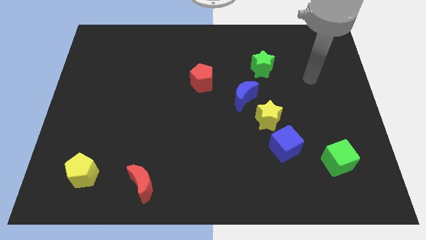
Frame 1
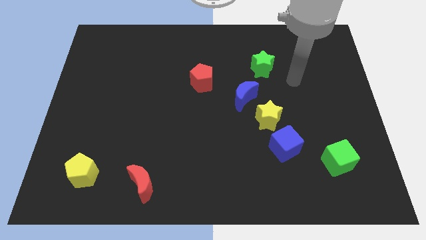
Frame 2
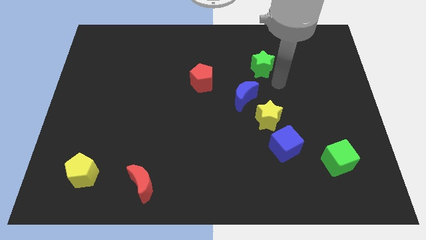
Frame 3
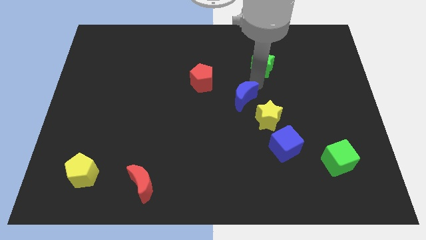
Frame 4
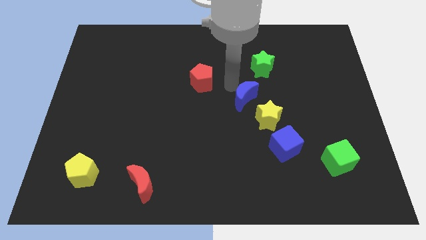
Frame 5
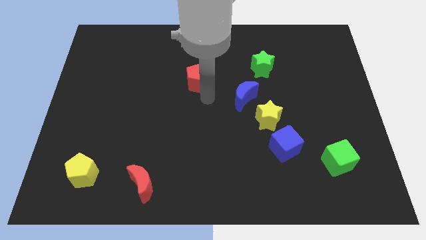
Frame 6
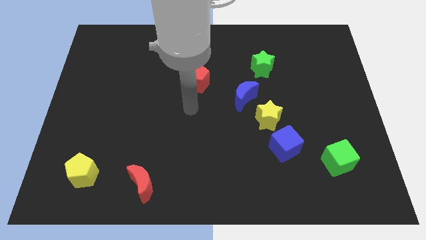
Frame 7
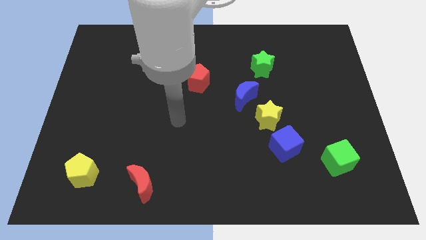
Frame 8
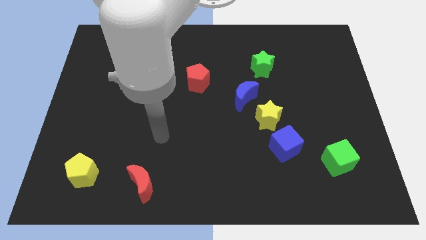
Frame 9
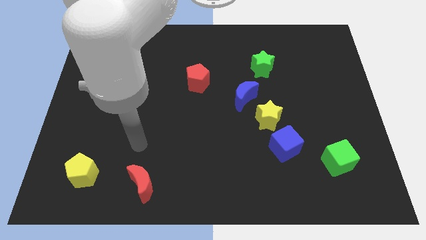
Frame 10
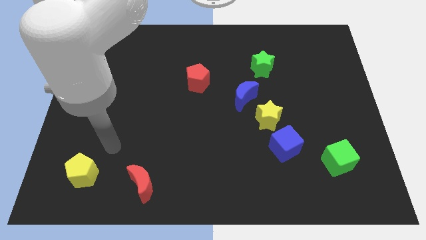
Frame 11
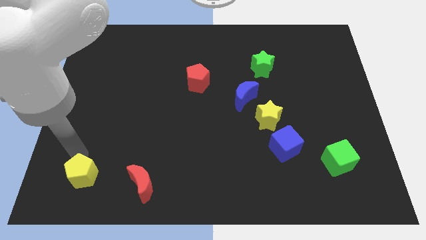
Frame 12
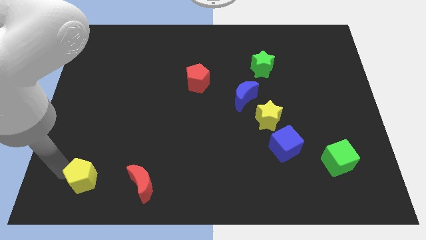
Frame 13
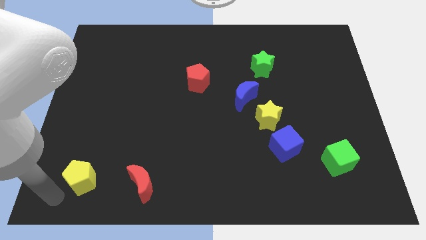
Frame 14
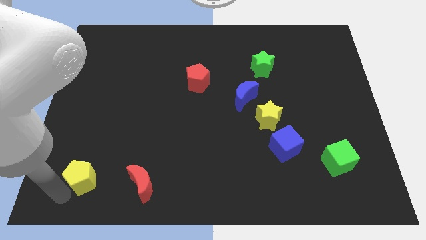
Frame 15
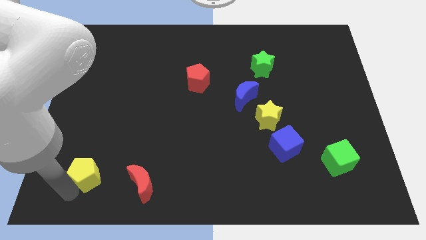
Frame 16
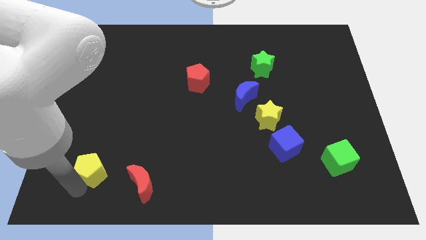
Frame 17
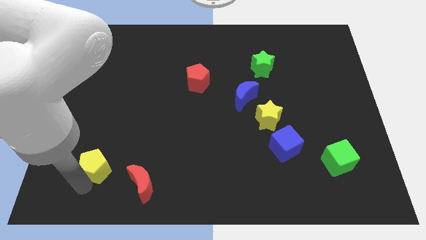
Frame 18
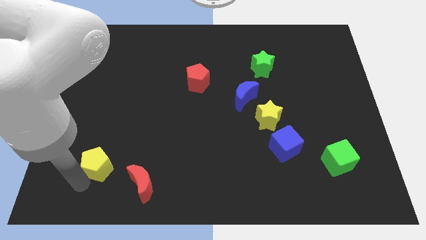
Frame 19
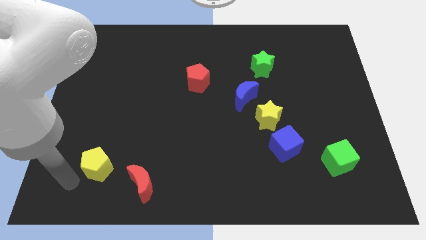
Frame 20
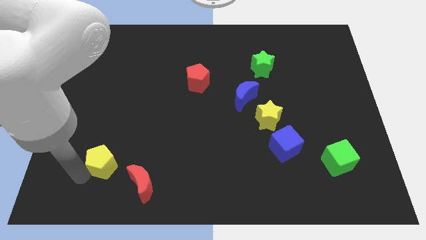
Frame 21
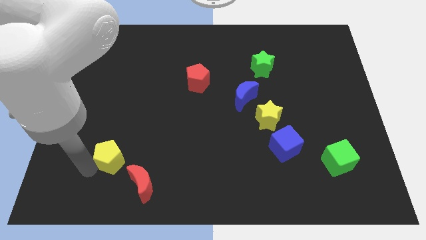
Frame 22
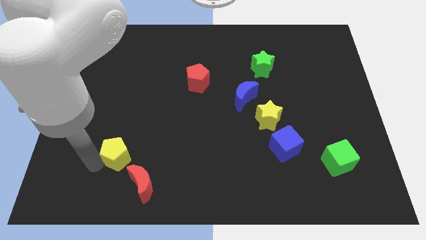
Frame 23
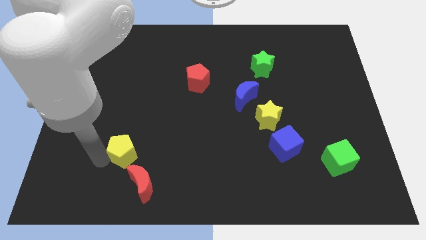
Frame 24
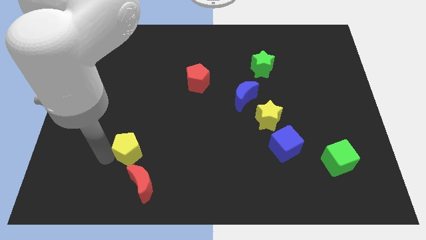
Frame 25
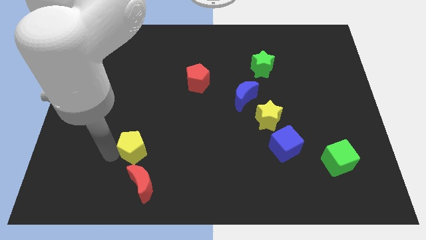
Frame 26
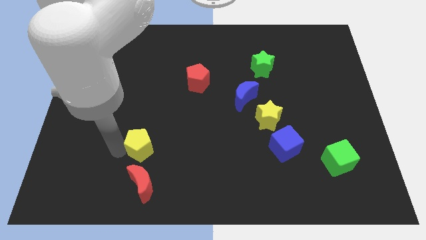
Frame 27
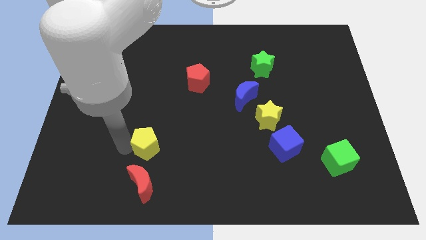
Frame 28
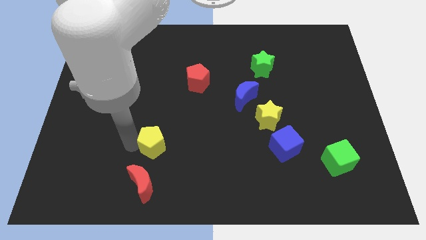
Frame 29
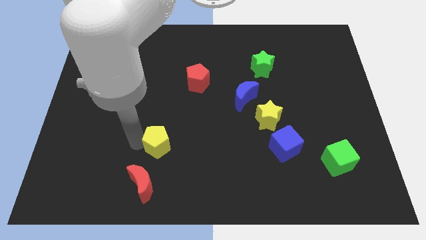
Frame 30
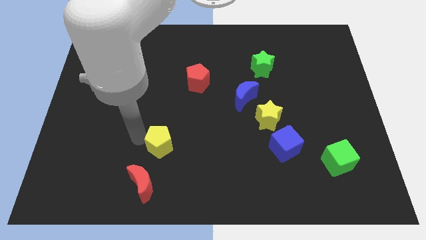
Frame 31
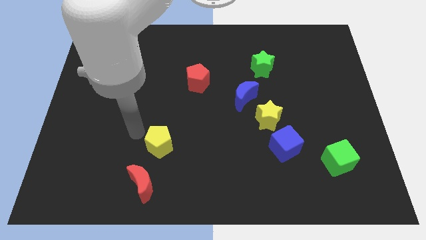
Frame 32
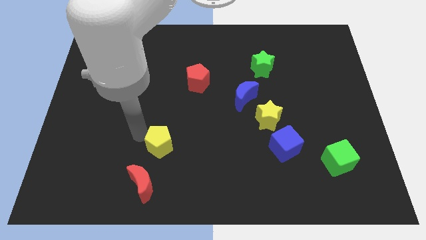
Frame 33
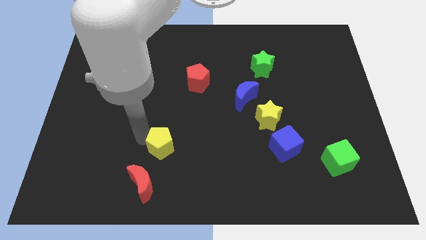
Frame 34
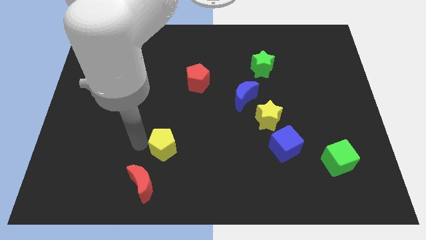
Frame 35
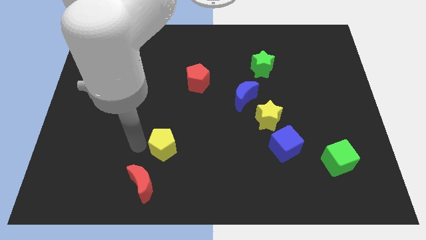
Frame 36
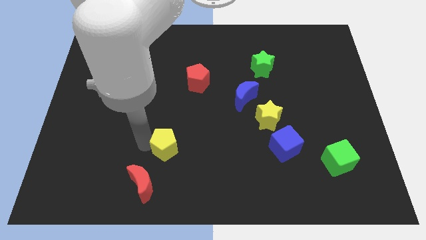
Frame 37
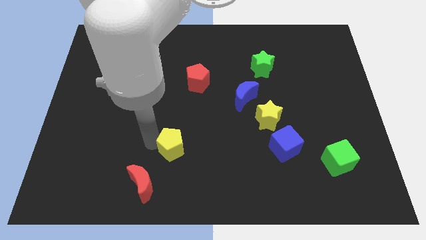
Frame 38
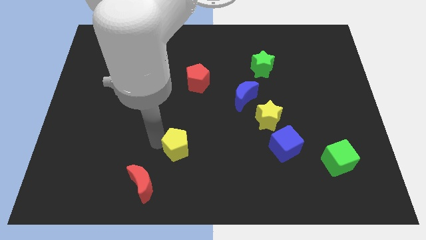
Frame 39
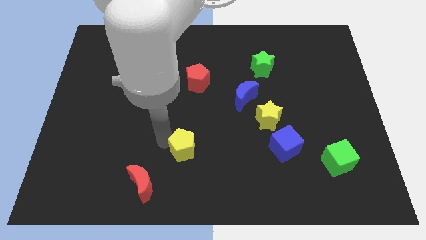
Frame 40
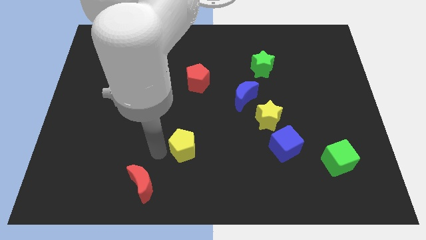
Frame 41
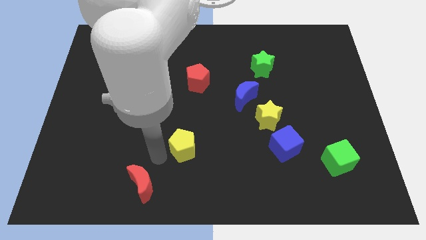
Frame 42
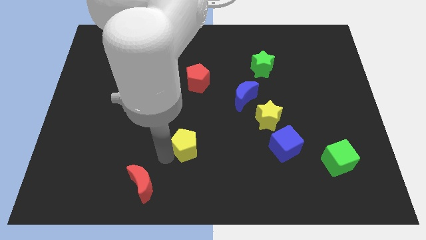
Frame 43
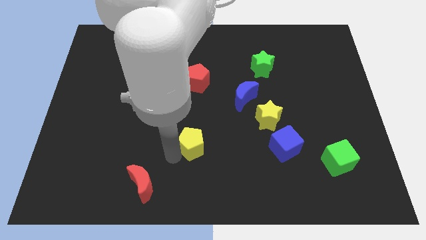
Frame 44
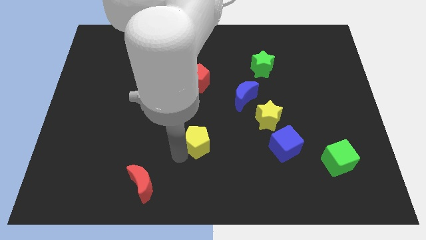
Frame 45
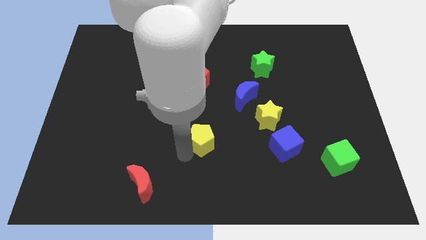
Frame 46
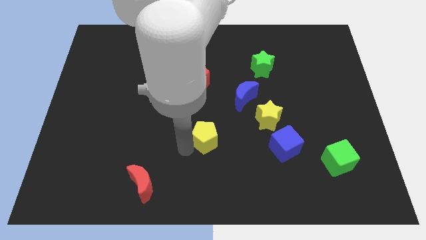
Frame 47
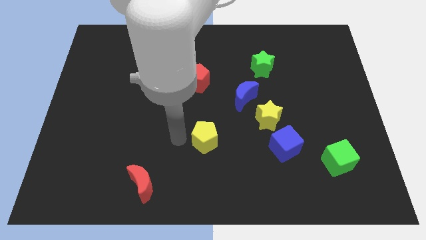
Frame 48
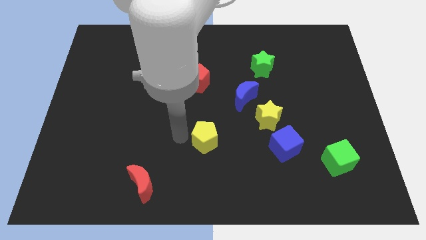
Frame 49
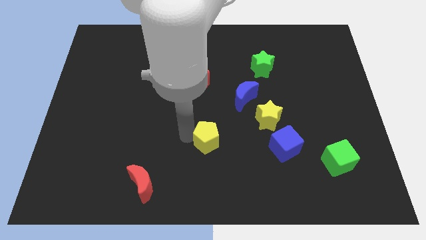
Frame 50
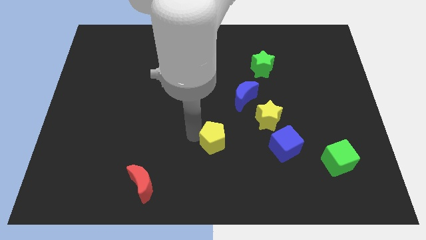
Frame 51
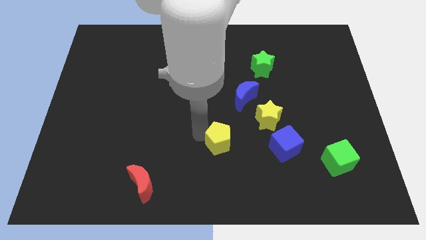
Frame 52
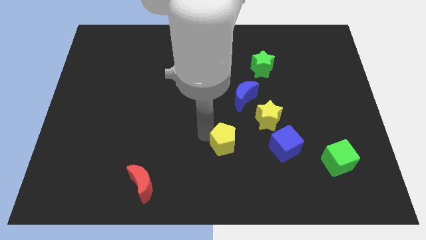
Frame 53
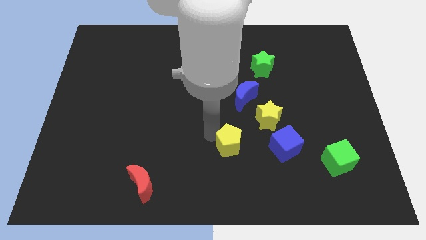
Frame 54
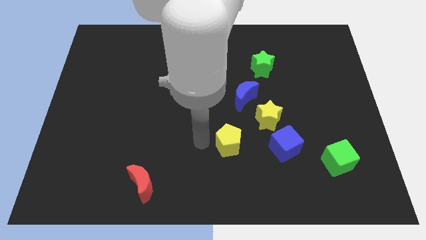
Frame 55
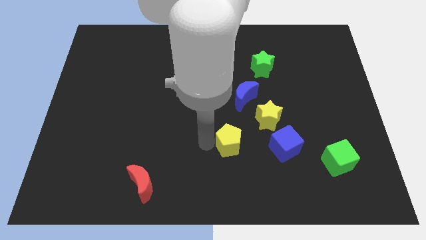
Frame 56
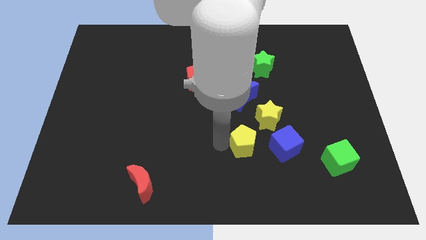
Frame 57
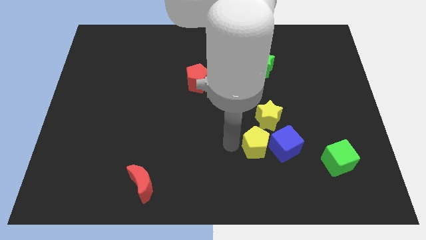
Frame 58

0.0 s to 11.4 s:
push the yellow pentagon next to the blue cube

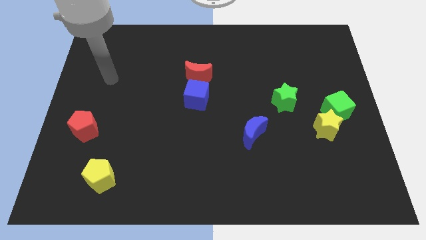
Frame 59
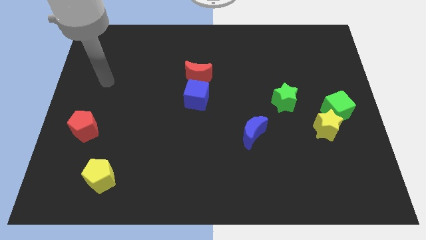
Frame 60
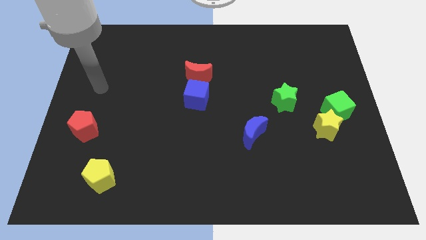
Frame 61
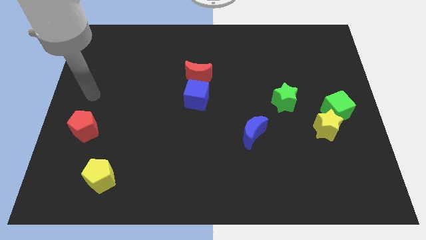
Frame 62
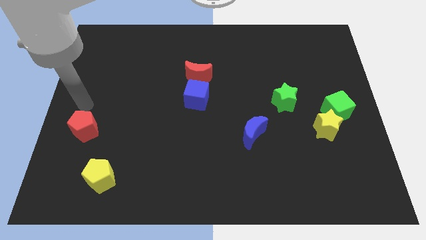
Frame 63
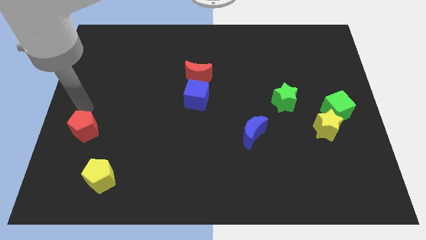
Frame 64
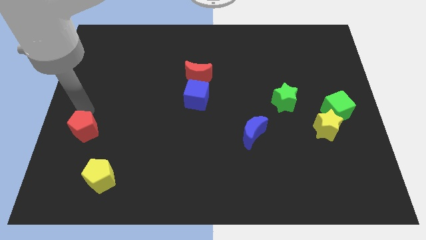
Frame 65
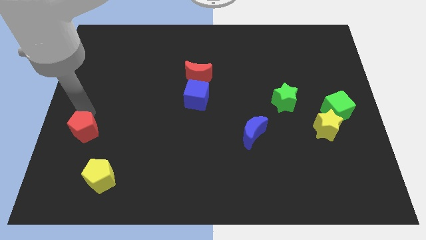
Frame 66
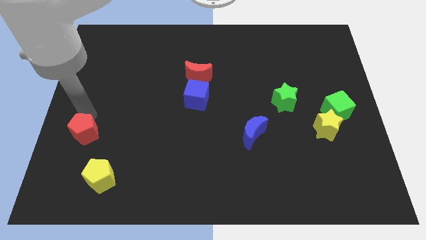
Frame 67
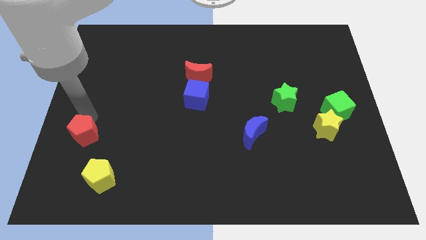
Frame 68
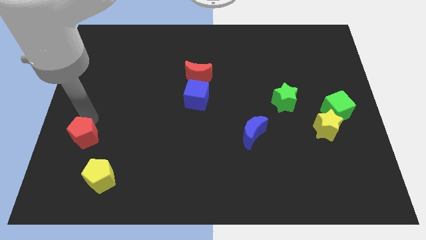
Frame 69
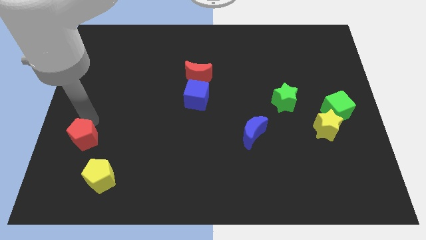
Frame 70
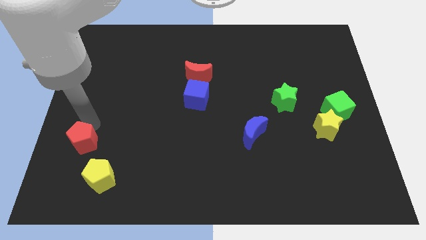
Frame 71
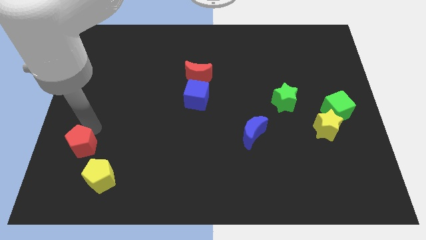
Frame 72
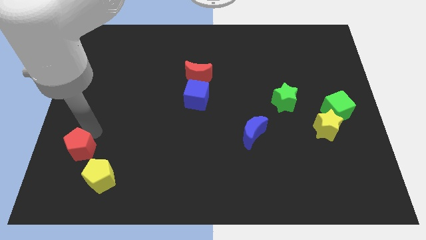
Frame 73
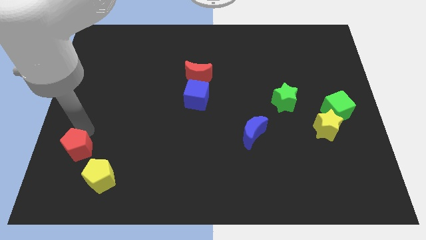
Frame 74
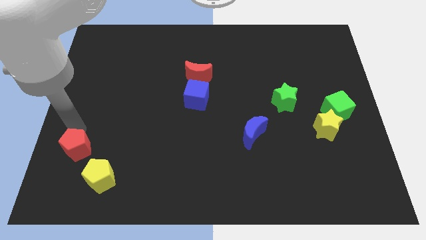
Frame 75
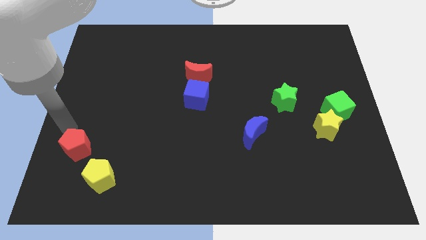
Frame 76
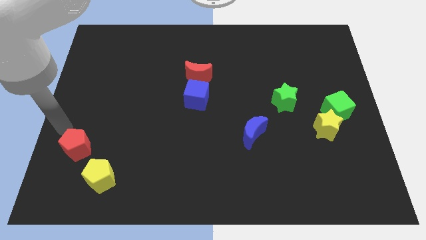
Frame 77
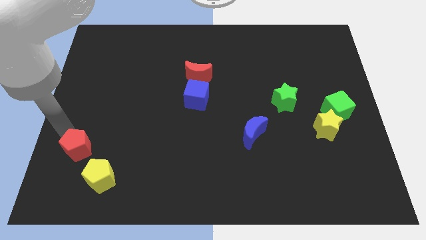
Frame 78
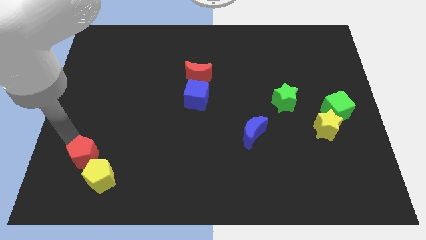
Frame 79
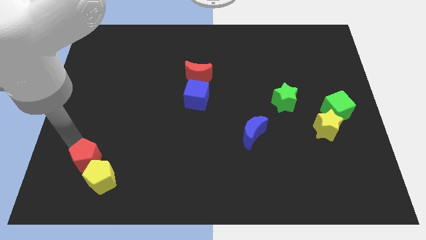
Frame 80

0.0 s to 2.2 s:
move the red pentagon next to the yellow pentagon
